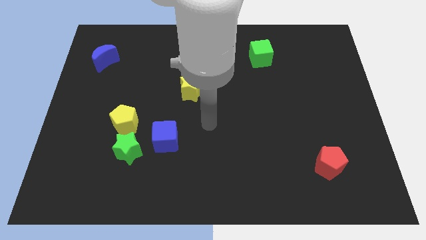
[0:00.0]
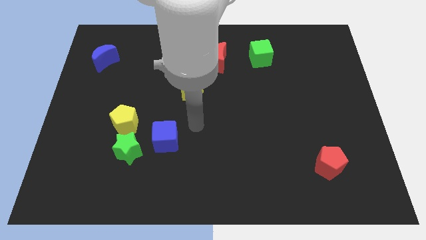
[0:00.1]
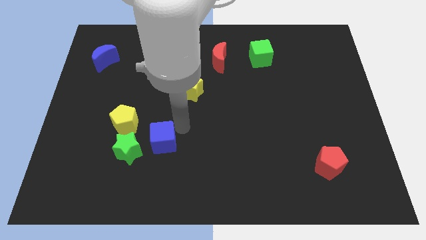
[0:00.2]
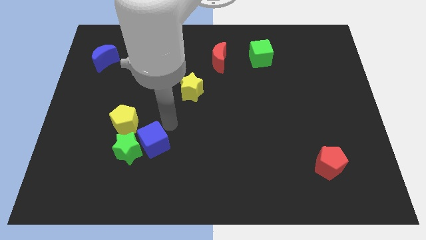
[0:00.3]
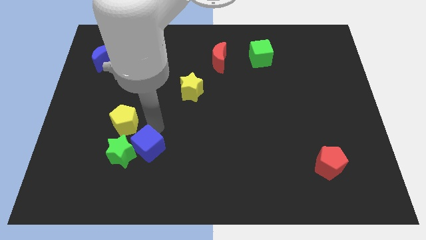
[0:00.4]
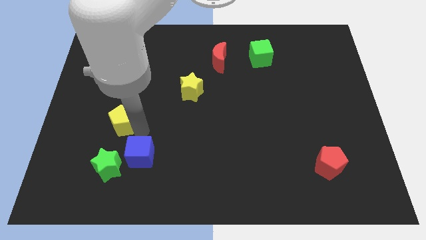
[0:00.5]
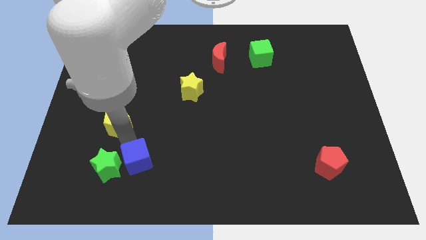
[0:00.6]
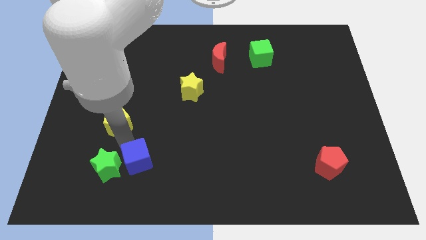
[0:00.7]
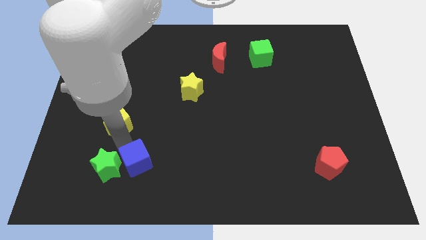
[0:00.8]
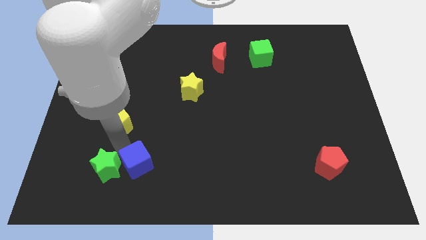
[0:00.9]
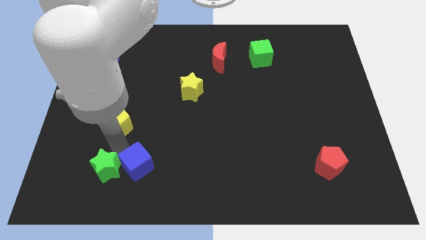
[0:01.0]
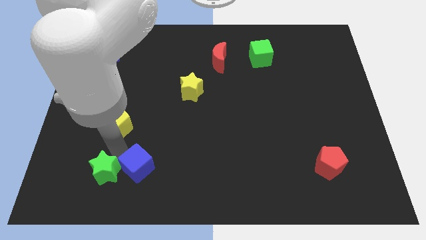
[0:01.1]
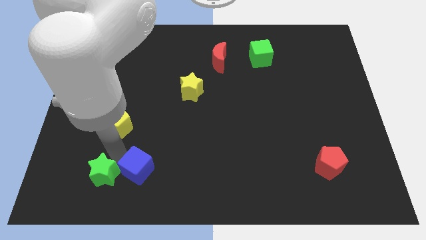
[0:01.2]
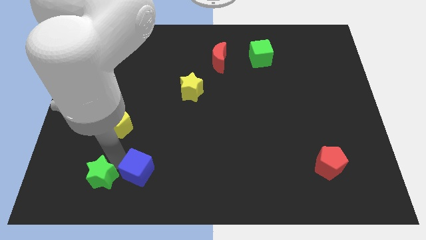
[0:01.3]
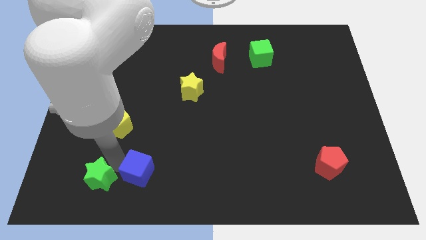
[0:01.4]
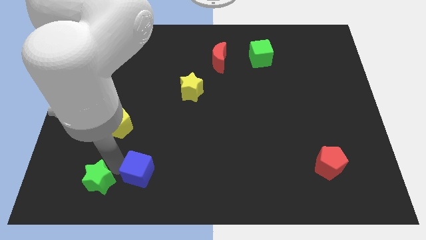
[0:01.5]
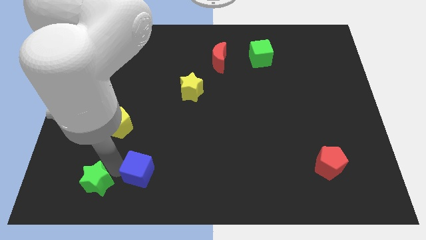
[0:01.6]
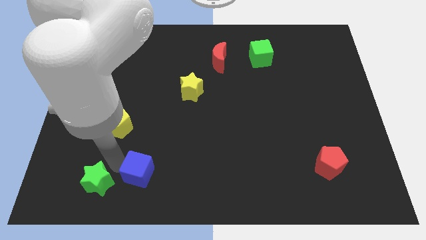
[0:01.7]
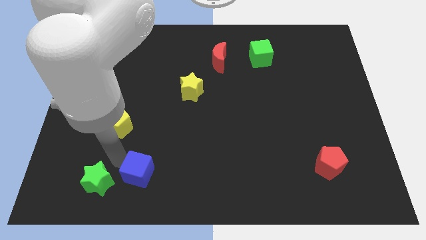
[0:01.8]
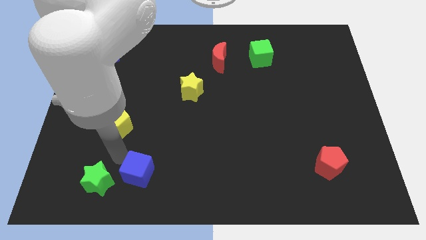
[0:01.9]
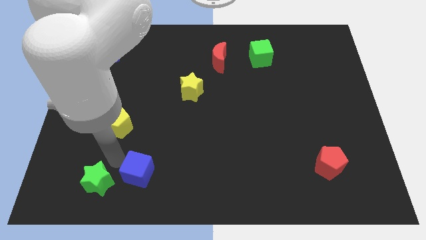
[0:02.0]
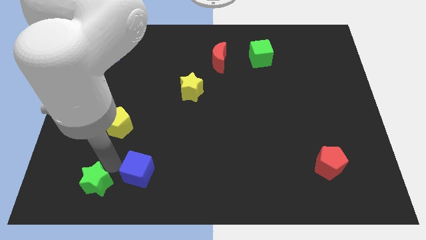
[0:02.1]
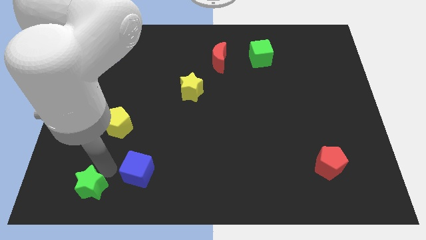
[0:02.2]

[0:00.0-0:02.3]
pull the green star apart from the yellow pentagon and blue cube

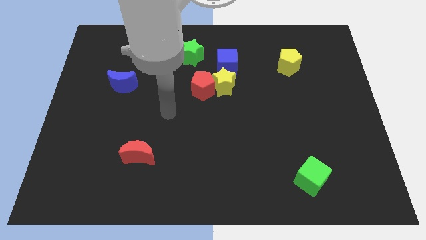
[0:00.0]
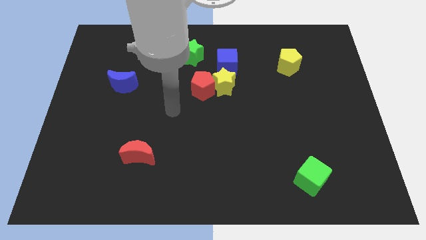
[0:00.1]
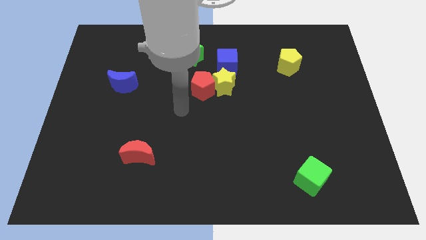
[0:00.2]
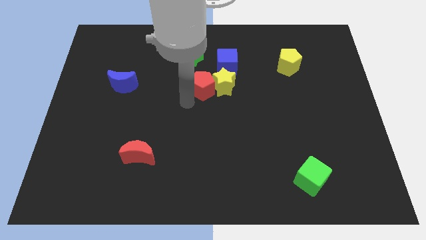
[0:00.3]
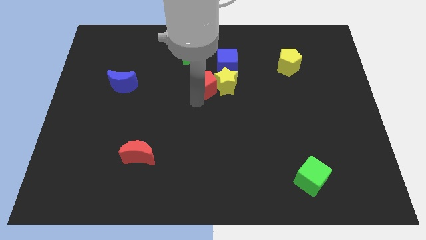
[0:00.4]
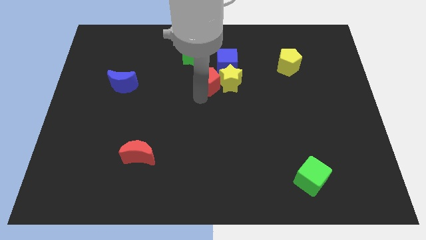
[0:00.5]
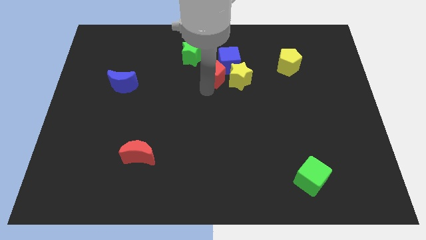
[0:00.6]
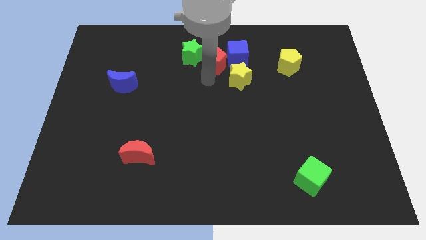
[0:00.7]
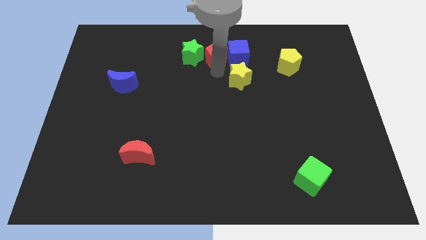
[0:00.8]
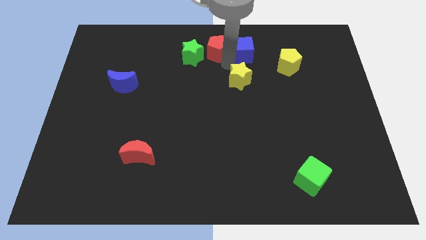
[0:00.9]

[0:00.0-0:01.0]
move the yellow star away from the red pentagon and blue cube

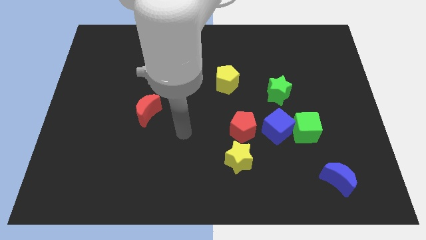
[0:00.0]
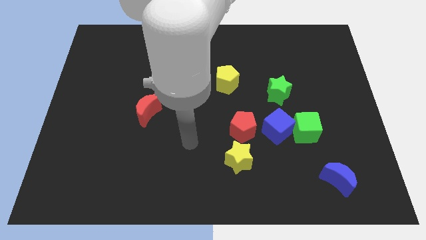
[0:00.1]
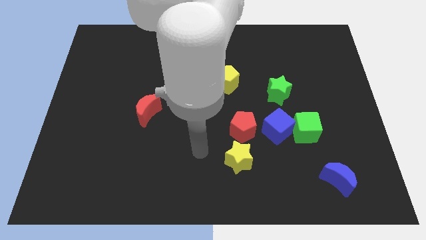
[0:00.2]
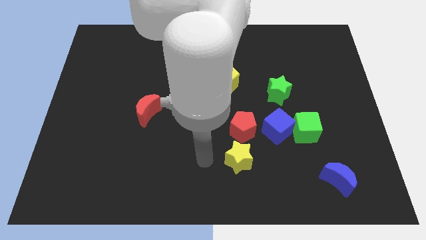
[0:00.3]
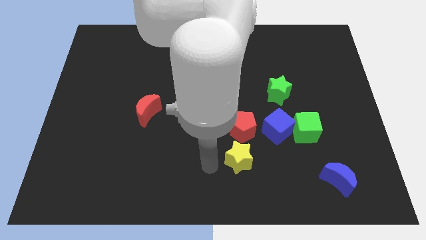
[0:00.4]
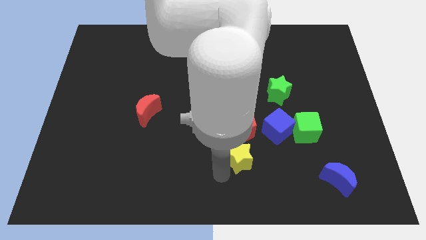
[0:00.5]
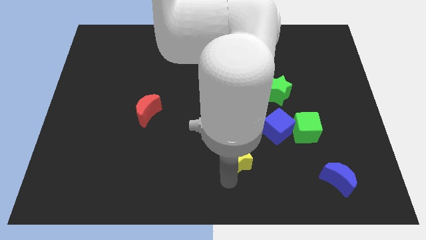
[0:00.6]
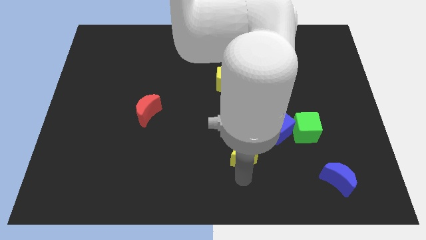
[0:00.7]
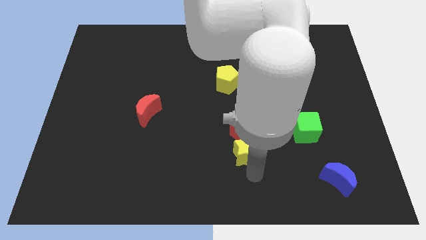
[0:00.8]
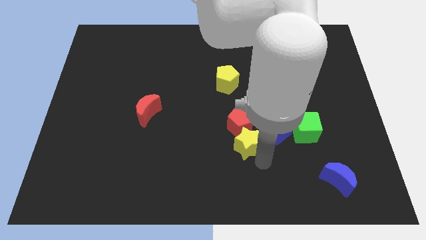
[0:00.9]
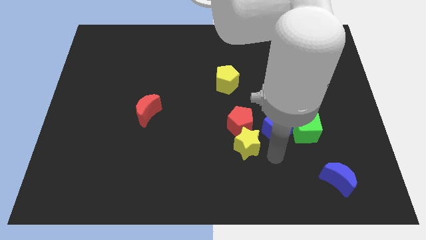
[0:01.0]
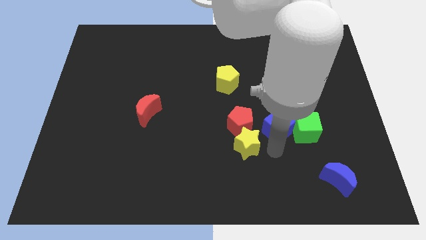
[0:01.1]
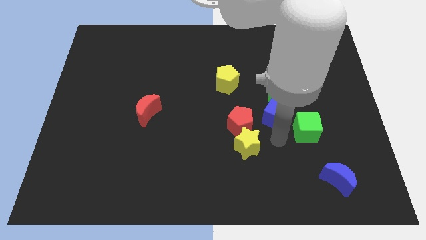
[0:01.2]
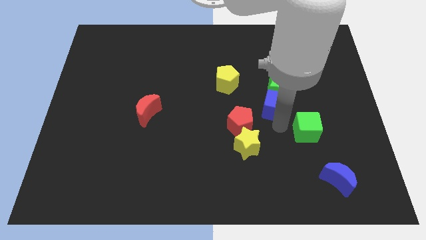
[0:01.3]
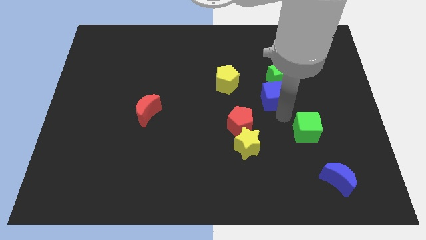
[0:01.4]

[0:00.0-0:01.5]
pull the green cube apart from the blue cube

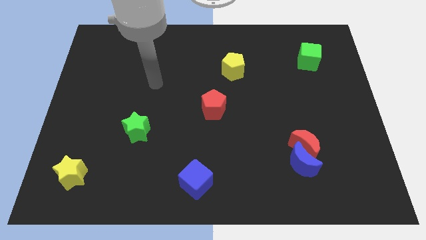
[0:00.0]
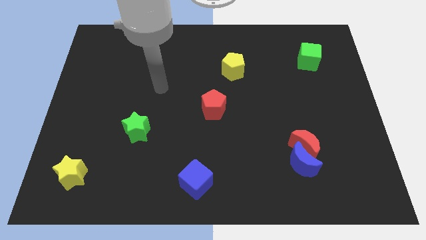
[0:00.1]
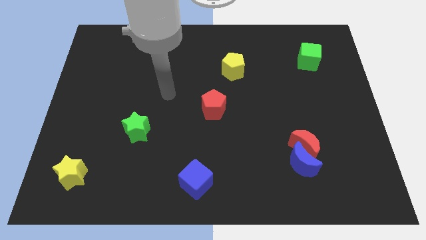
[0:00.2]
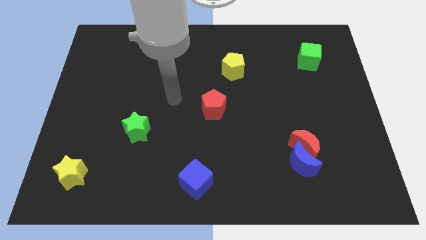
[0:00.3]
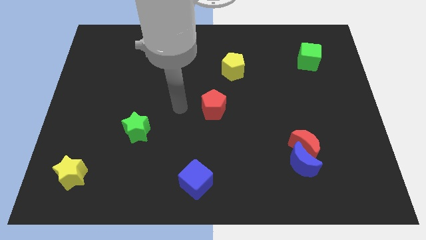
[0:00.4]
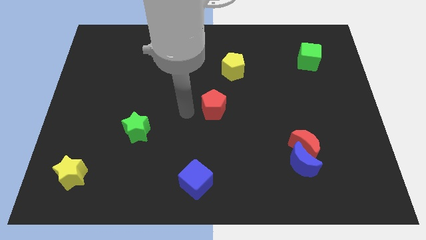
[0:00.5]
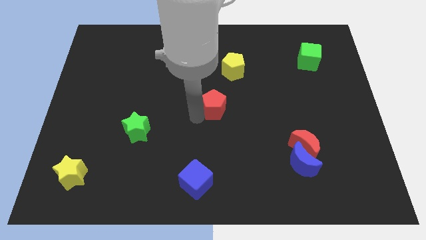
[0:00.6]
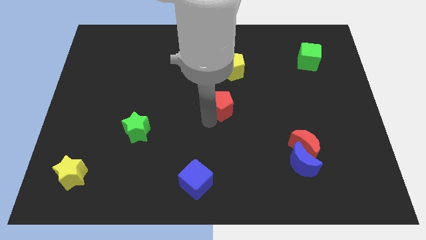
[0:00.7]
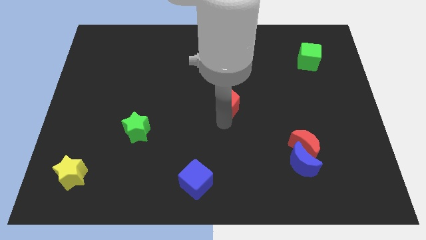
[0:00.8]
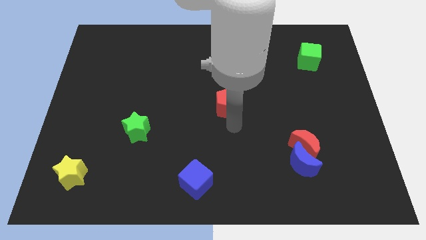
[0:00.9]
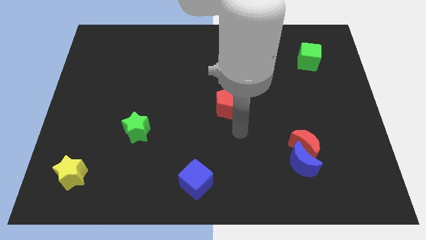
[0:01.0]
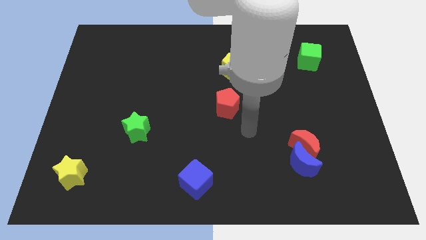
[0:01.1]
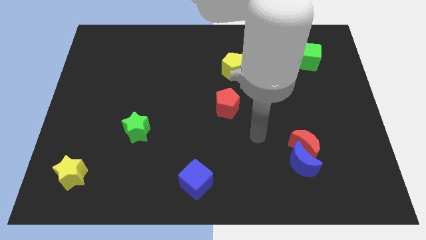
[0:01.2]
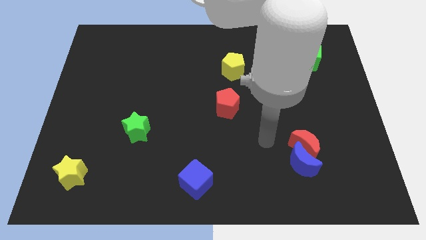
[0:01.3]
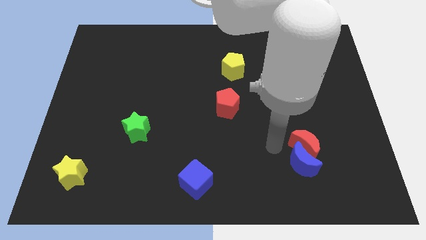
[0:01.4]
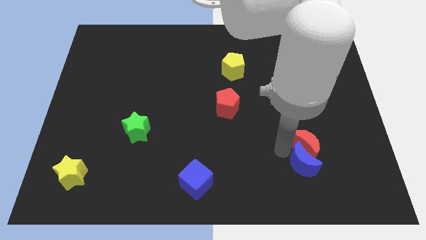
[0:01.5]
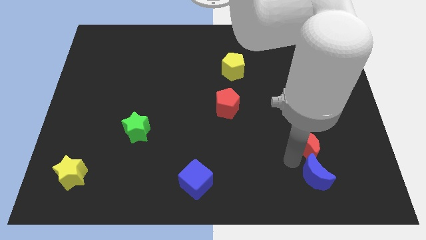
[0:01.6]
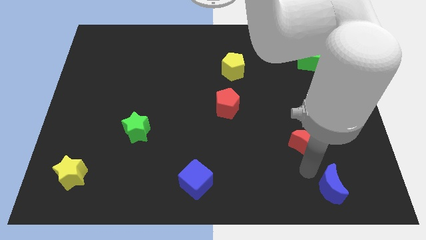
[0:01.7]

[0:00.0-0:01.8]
separate the red moon from the blue moon

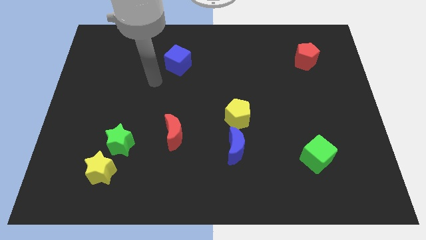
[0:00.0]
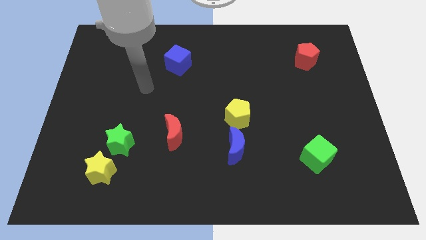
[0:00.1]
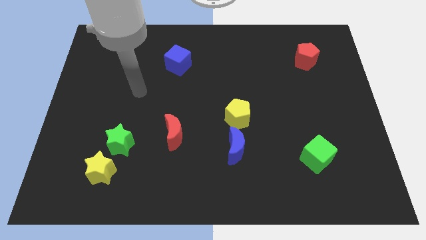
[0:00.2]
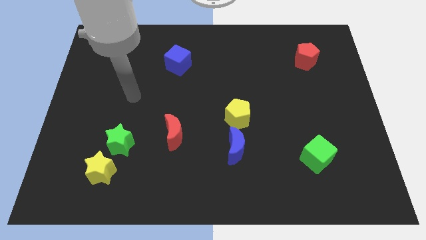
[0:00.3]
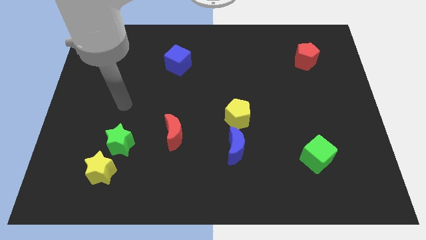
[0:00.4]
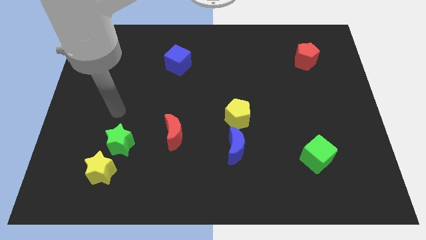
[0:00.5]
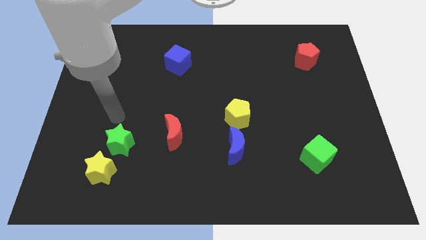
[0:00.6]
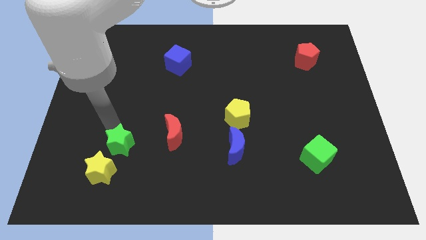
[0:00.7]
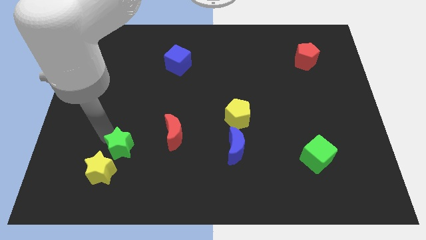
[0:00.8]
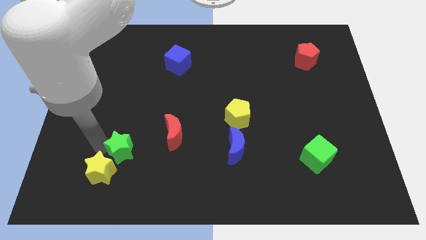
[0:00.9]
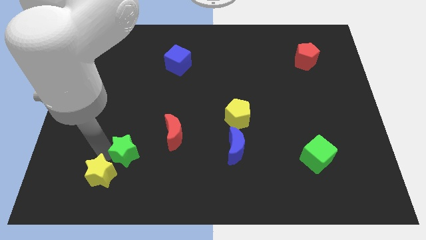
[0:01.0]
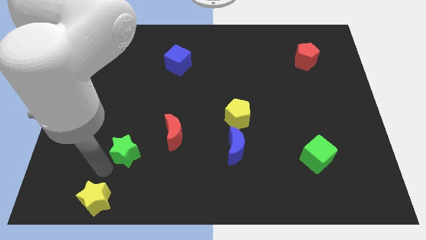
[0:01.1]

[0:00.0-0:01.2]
move the green star away from the yellow star

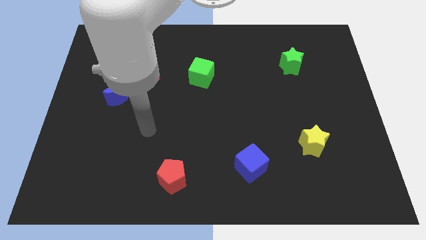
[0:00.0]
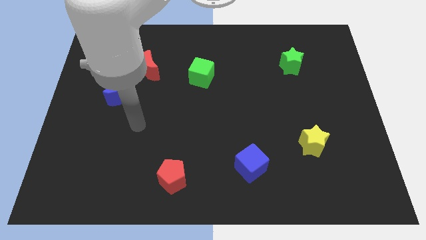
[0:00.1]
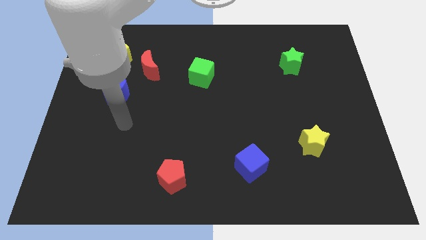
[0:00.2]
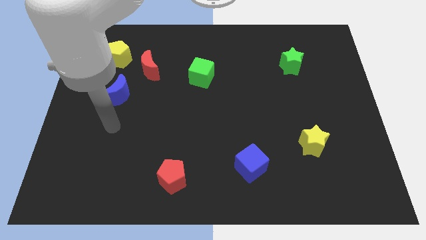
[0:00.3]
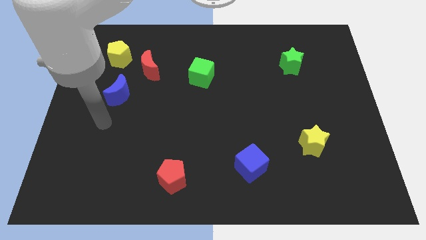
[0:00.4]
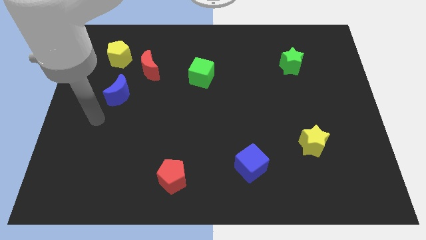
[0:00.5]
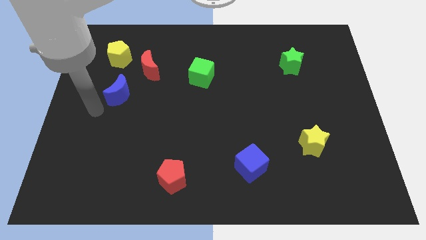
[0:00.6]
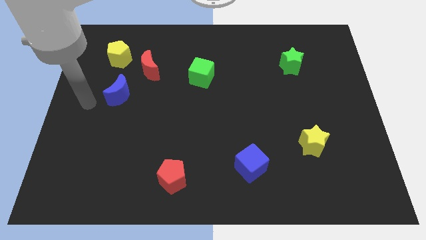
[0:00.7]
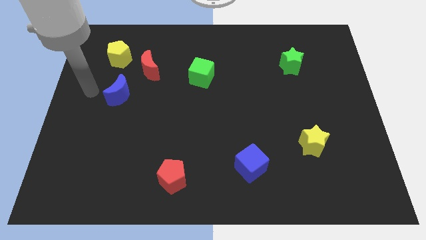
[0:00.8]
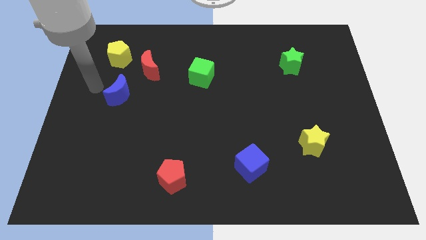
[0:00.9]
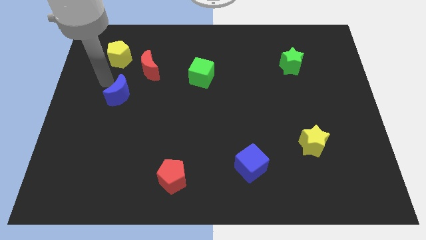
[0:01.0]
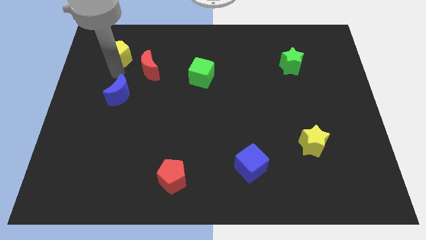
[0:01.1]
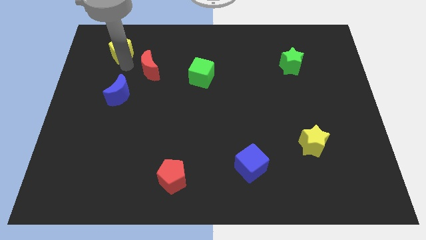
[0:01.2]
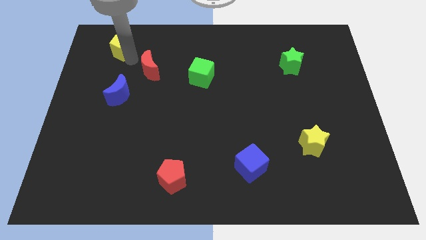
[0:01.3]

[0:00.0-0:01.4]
pull the red moon apart from the yellow pentagon
